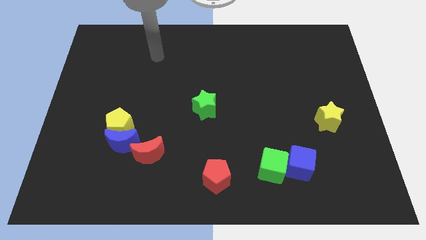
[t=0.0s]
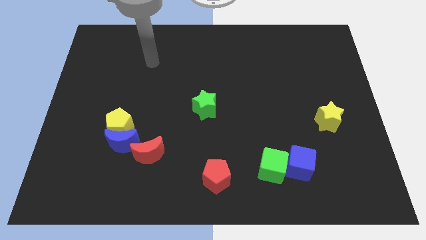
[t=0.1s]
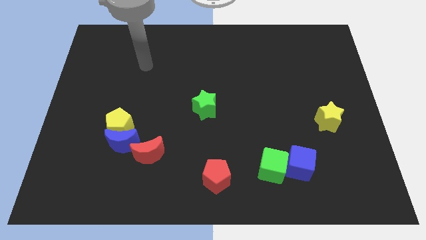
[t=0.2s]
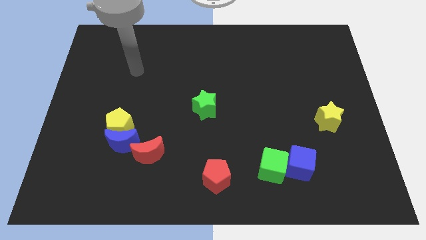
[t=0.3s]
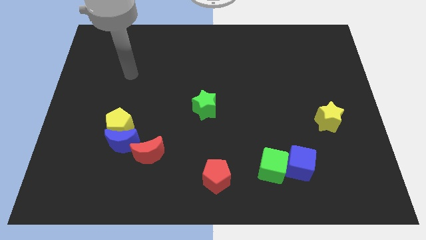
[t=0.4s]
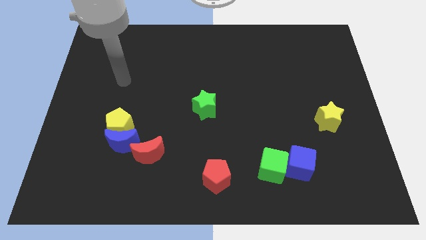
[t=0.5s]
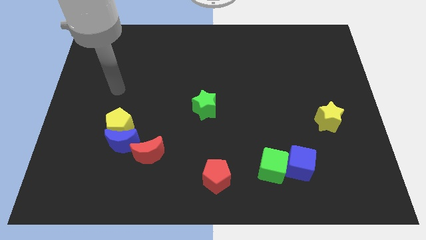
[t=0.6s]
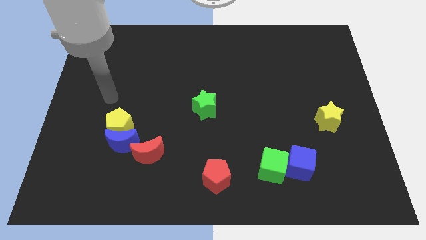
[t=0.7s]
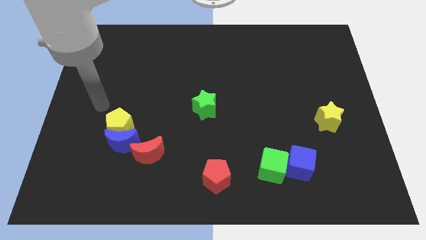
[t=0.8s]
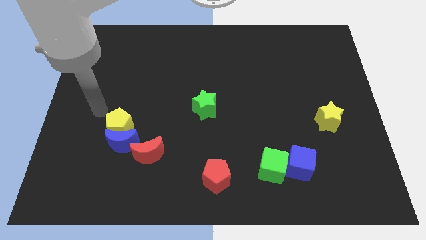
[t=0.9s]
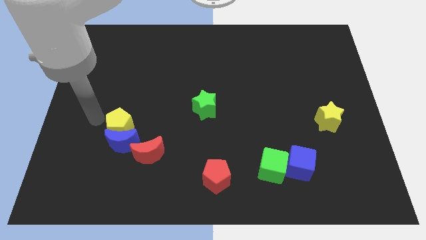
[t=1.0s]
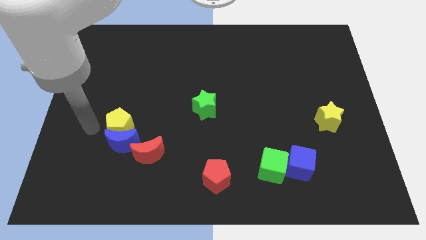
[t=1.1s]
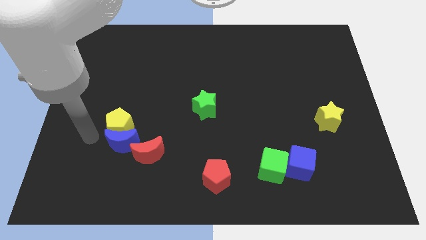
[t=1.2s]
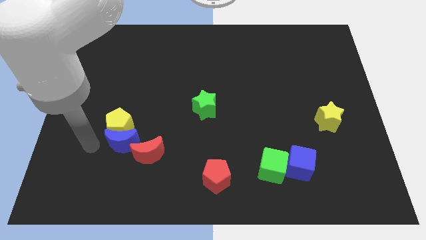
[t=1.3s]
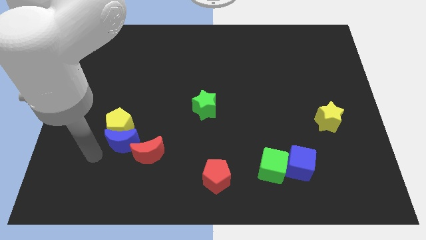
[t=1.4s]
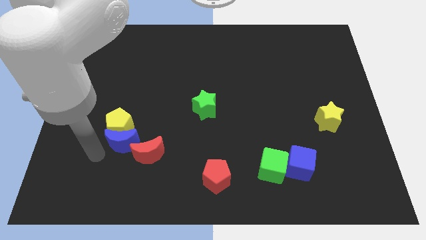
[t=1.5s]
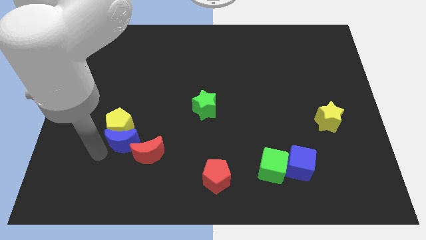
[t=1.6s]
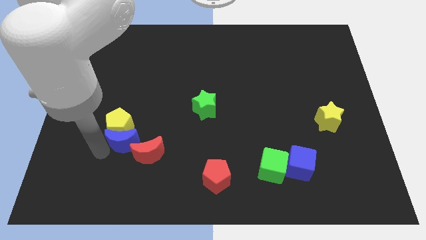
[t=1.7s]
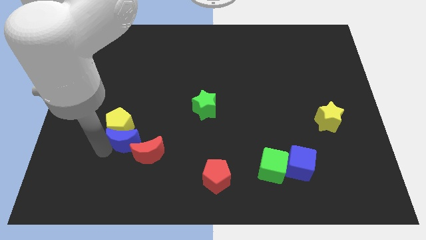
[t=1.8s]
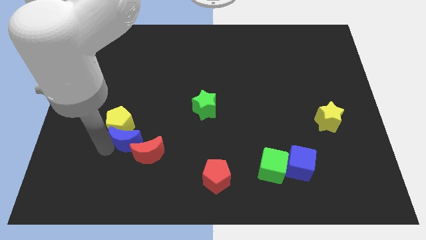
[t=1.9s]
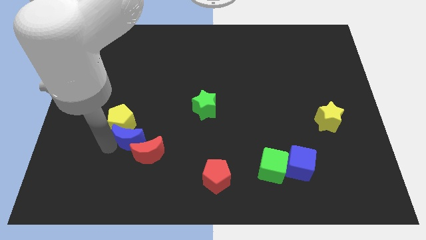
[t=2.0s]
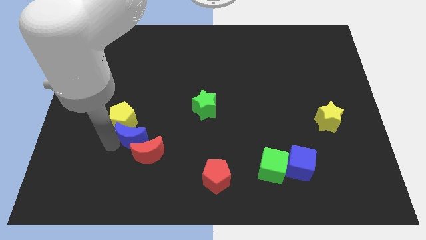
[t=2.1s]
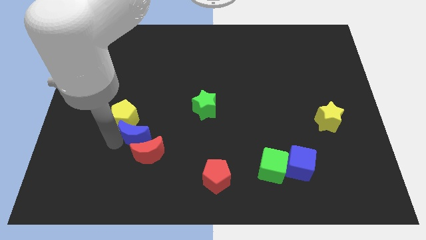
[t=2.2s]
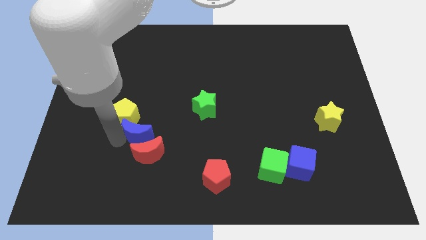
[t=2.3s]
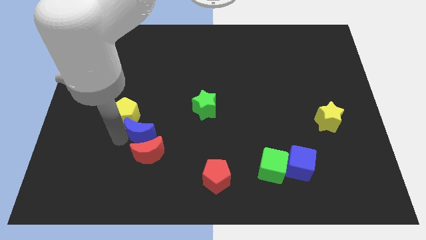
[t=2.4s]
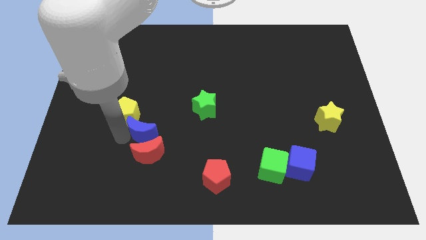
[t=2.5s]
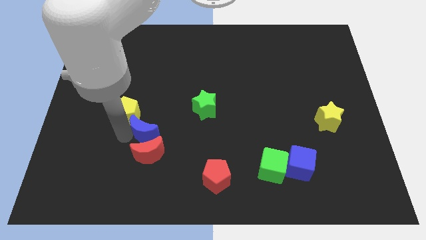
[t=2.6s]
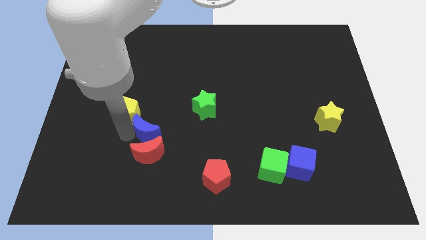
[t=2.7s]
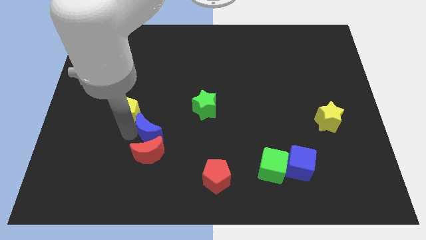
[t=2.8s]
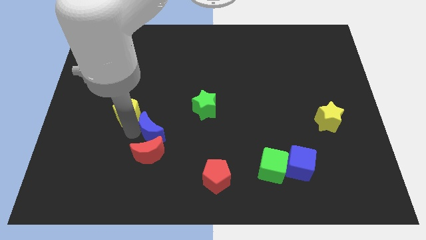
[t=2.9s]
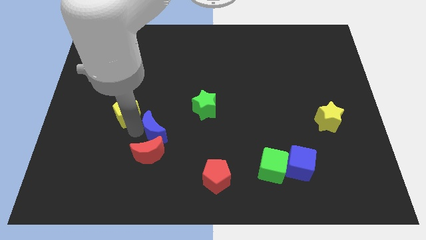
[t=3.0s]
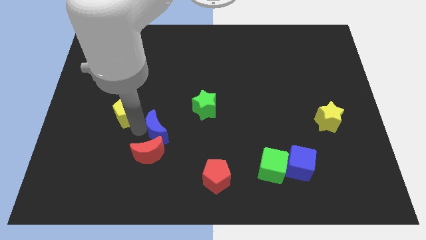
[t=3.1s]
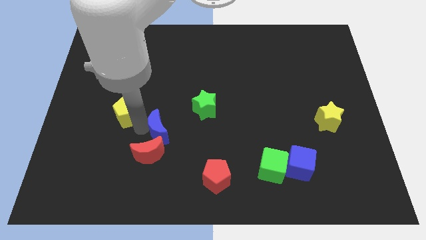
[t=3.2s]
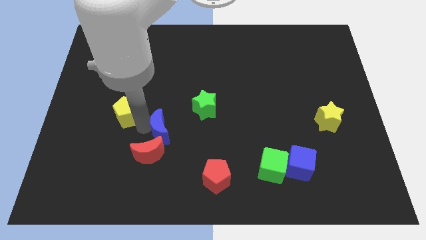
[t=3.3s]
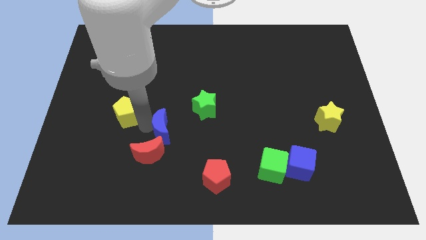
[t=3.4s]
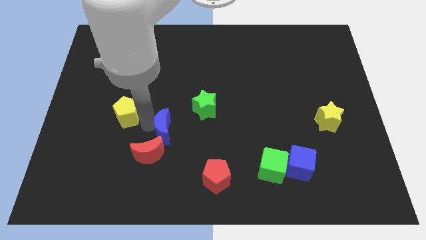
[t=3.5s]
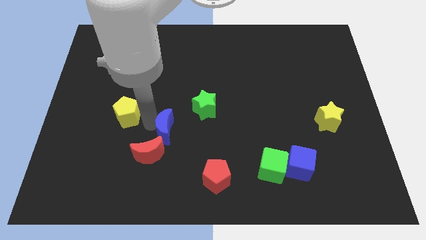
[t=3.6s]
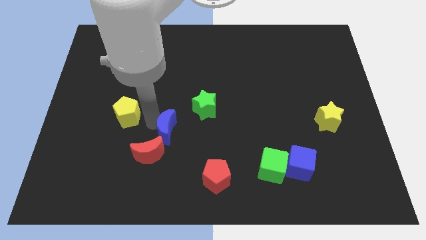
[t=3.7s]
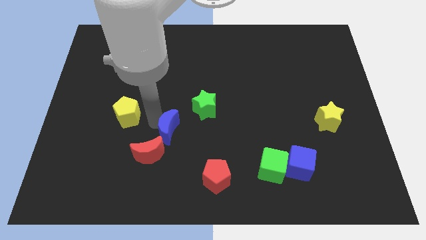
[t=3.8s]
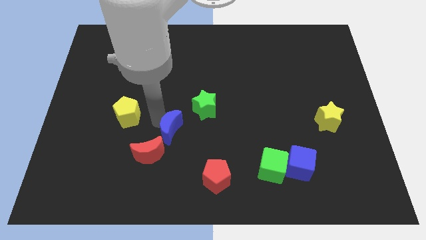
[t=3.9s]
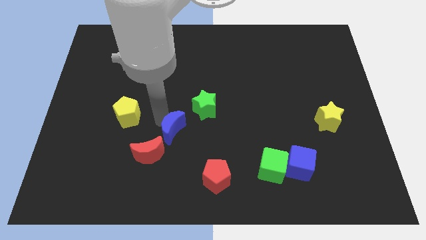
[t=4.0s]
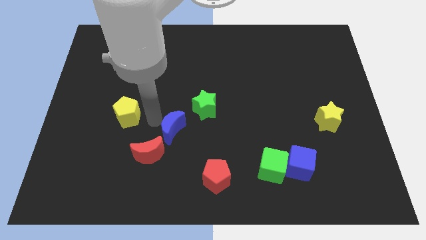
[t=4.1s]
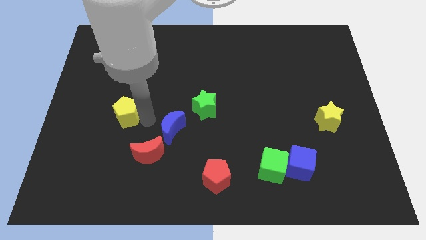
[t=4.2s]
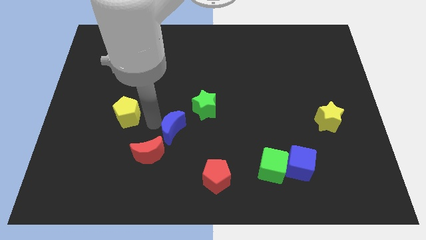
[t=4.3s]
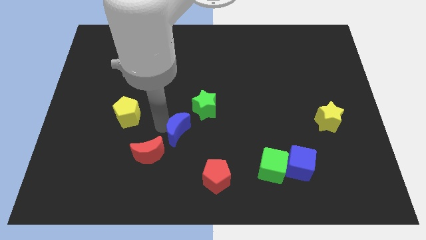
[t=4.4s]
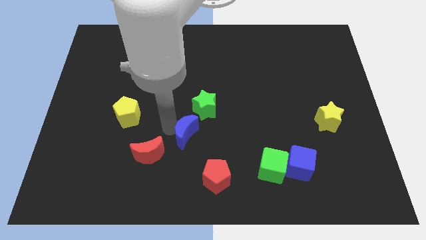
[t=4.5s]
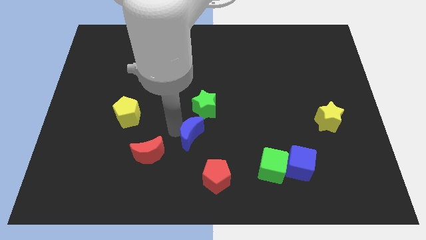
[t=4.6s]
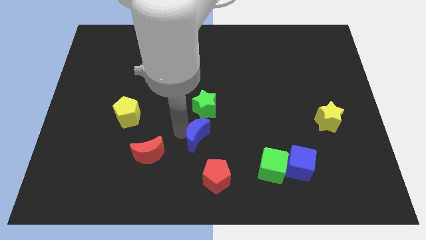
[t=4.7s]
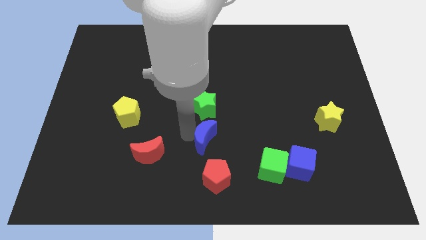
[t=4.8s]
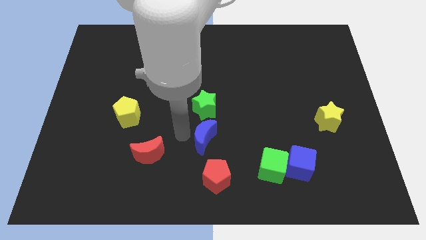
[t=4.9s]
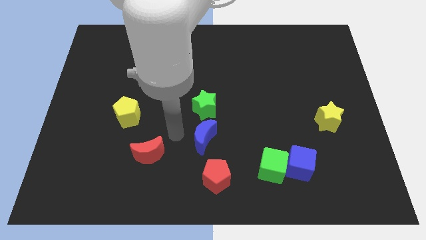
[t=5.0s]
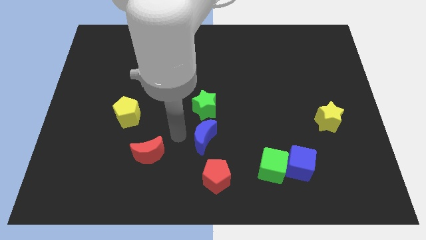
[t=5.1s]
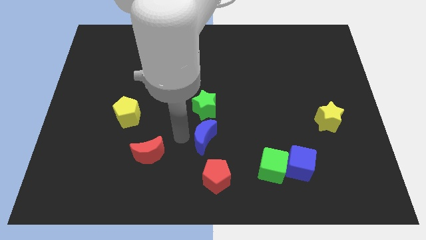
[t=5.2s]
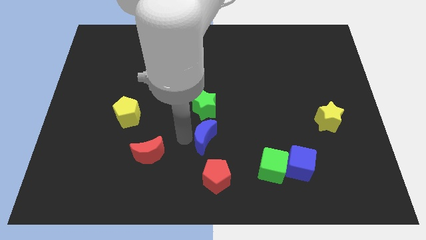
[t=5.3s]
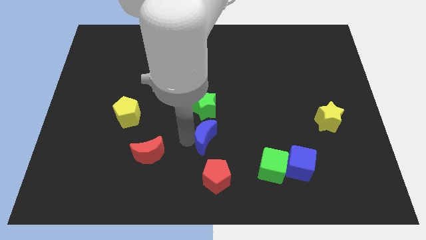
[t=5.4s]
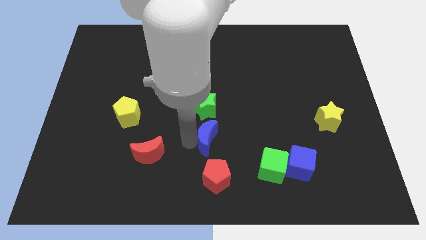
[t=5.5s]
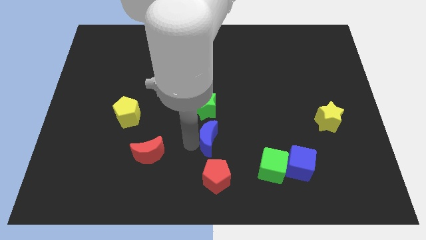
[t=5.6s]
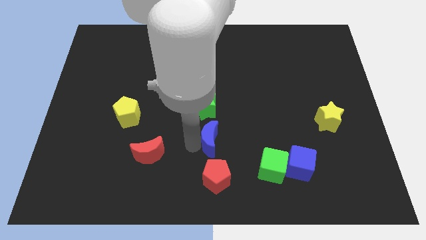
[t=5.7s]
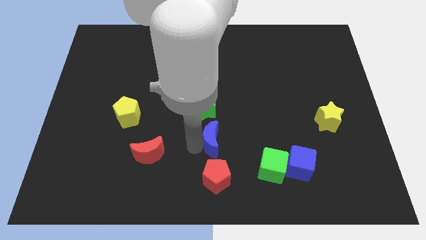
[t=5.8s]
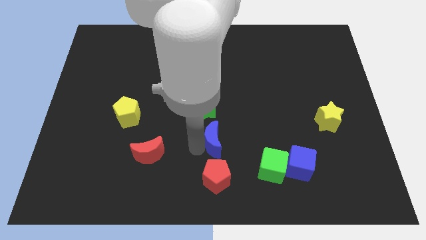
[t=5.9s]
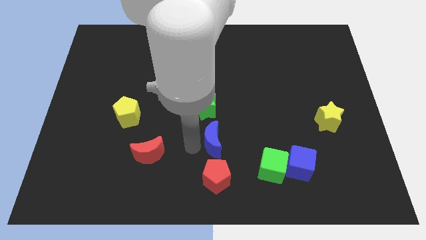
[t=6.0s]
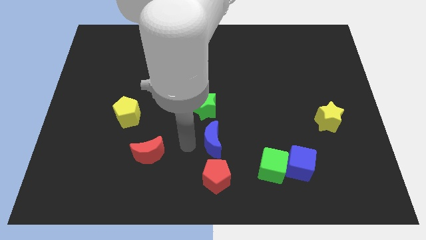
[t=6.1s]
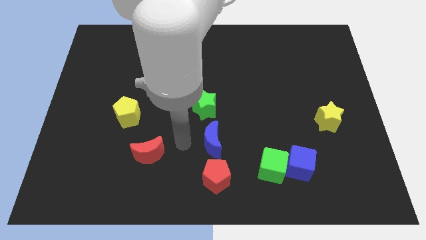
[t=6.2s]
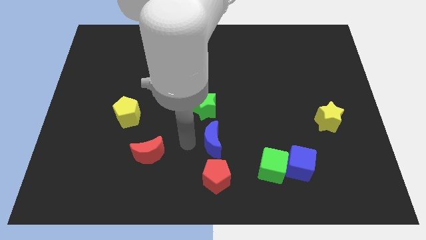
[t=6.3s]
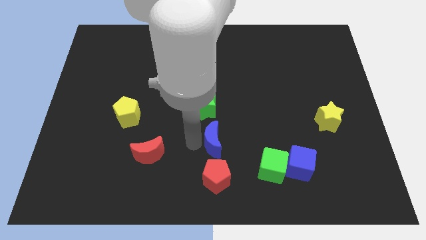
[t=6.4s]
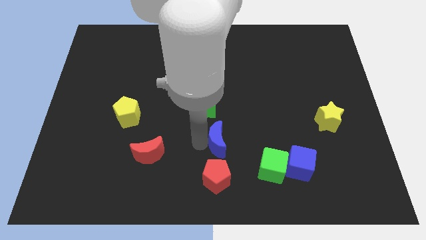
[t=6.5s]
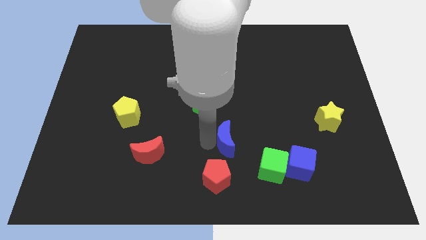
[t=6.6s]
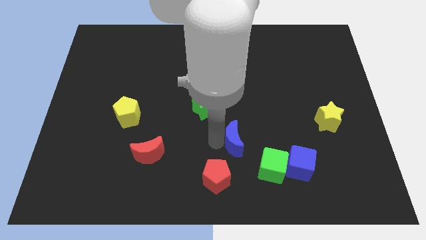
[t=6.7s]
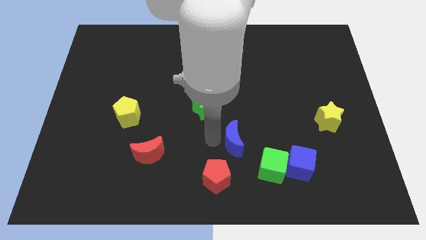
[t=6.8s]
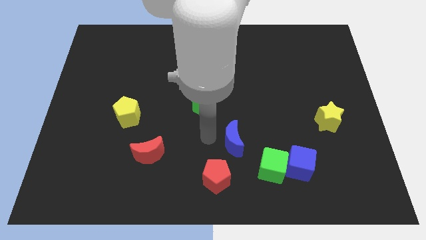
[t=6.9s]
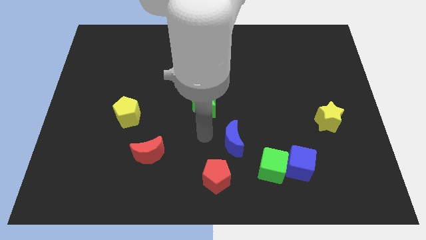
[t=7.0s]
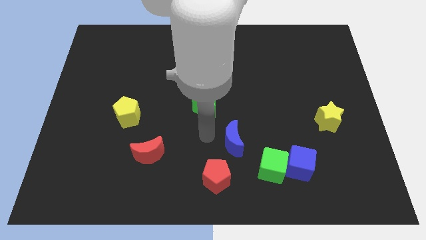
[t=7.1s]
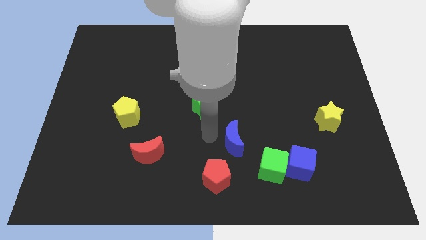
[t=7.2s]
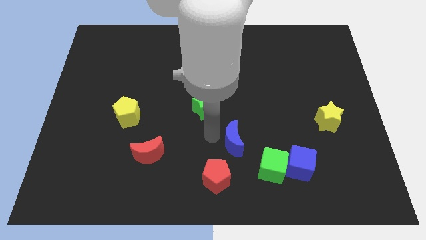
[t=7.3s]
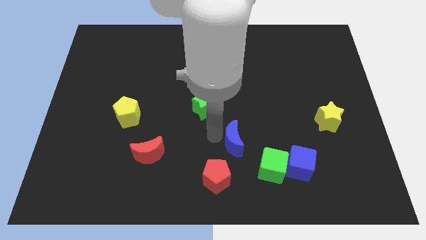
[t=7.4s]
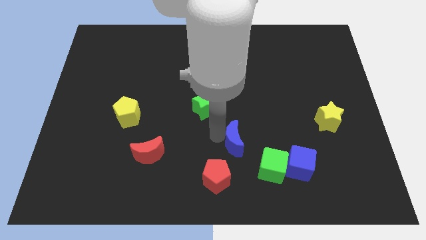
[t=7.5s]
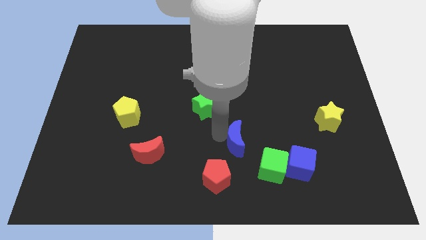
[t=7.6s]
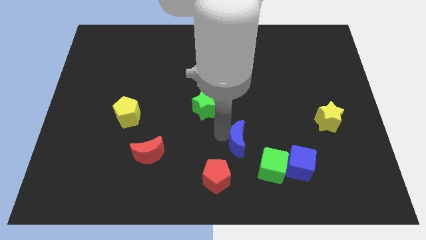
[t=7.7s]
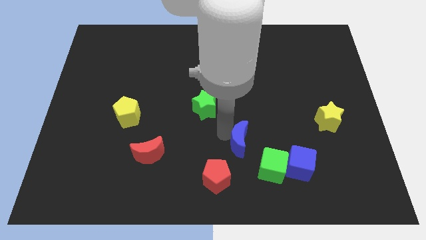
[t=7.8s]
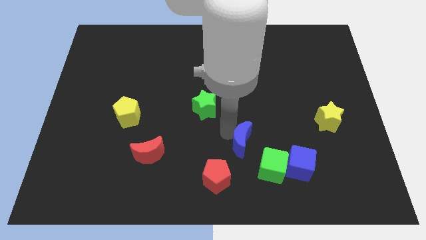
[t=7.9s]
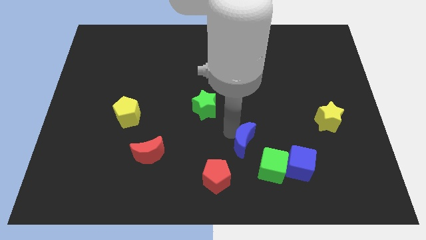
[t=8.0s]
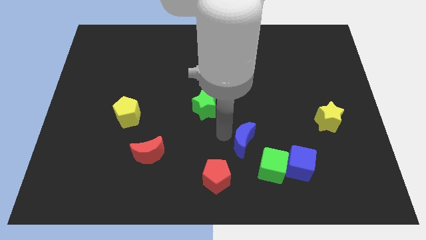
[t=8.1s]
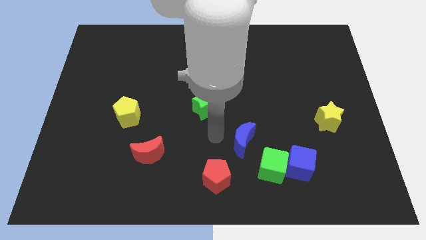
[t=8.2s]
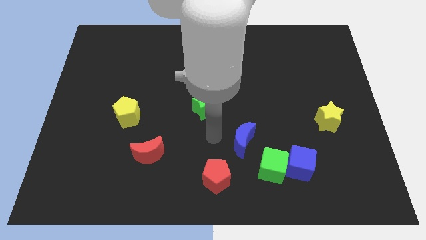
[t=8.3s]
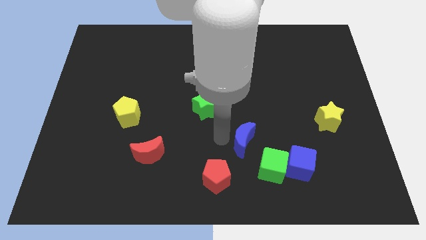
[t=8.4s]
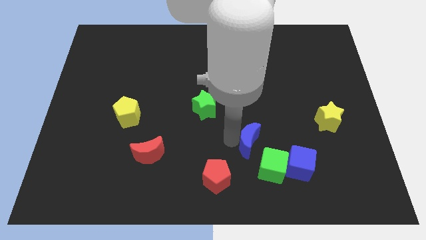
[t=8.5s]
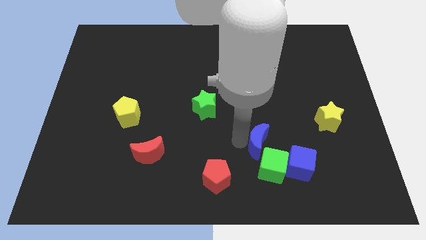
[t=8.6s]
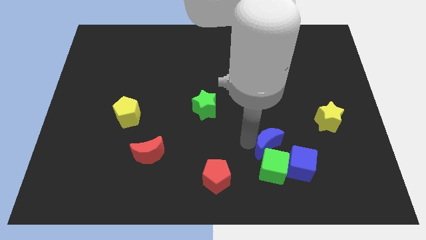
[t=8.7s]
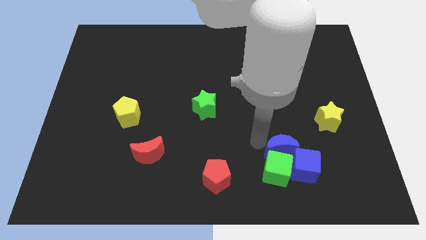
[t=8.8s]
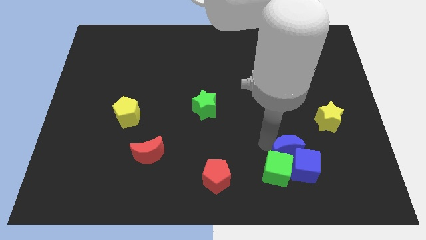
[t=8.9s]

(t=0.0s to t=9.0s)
put the blue moon next to the blue cube
